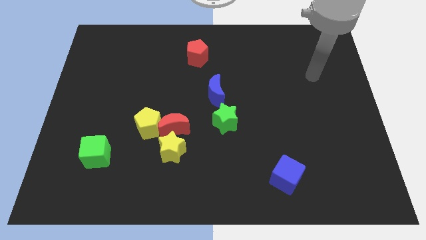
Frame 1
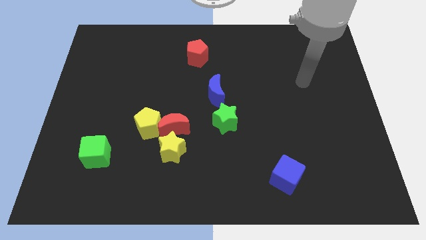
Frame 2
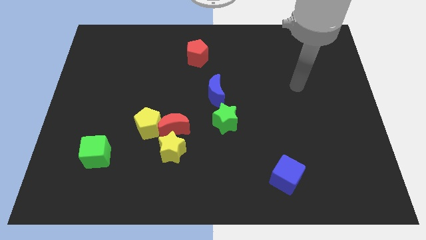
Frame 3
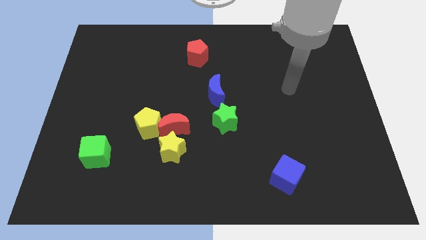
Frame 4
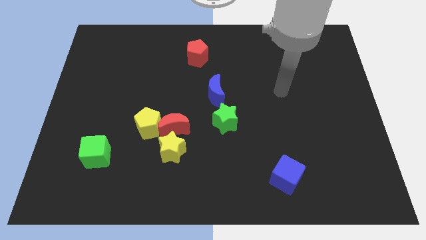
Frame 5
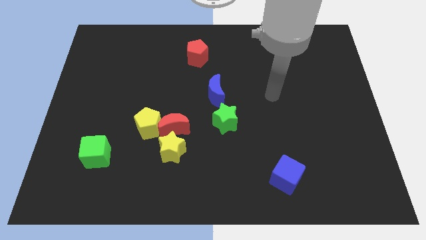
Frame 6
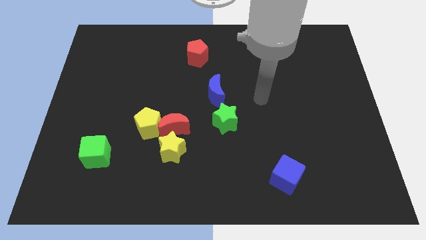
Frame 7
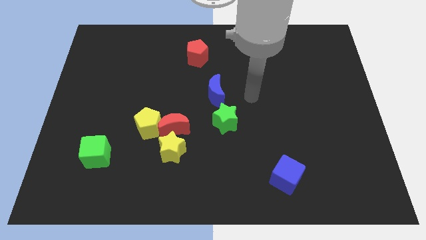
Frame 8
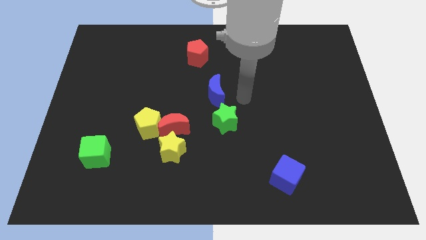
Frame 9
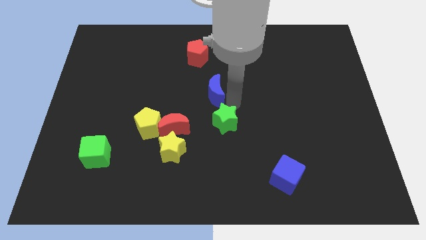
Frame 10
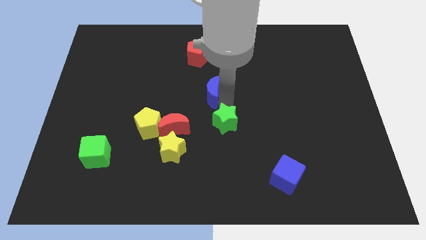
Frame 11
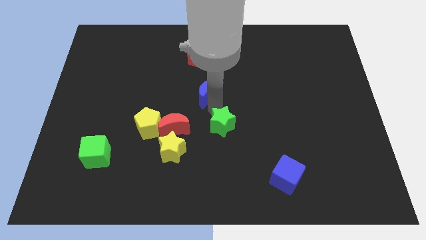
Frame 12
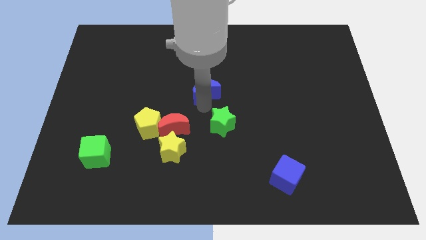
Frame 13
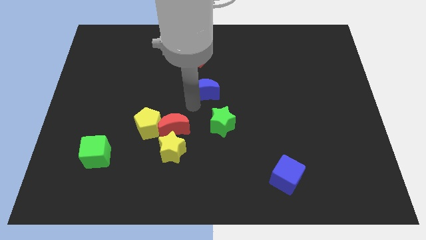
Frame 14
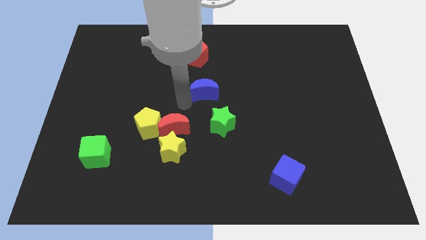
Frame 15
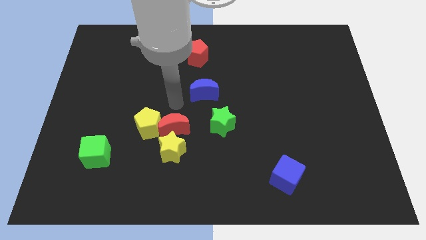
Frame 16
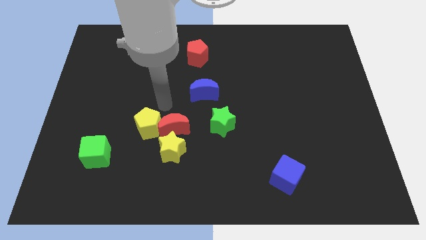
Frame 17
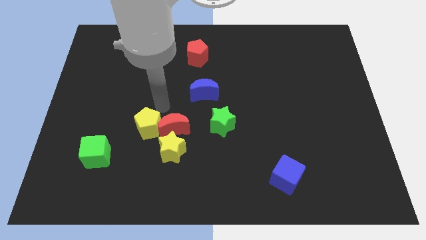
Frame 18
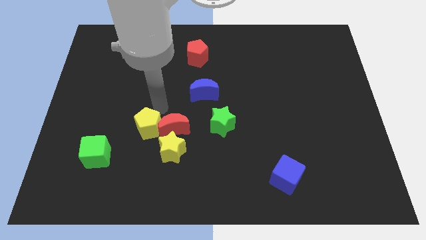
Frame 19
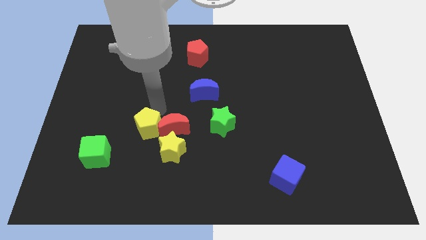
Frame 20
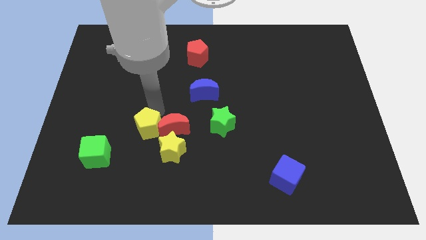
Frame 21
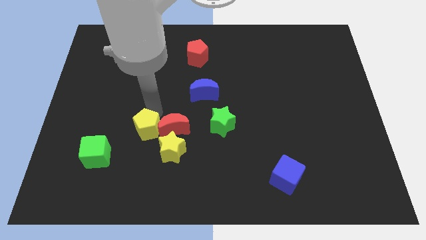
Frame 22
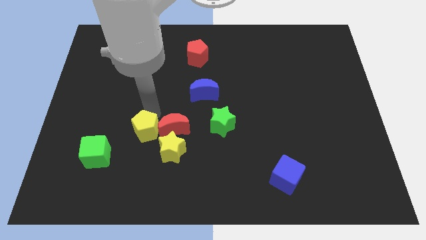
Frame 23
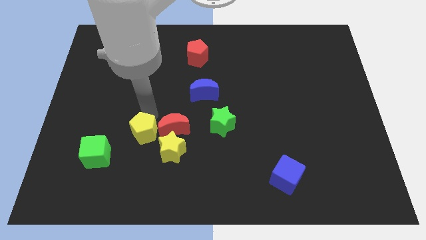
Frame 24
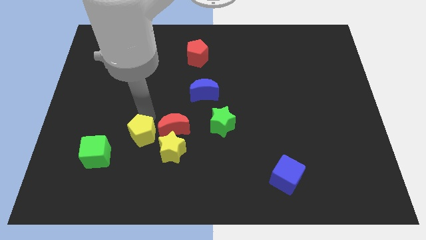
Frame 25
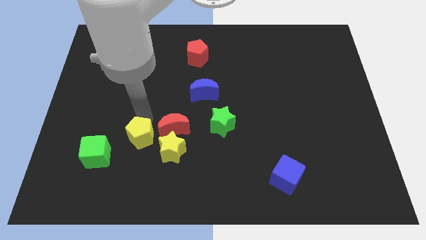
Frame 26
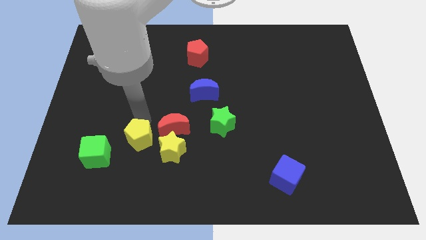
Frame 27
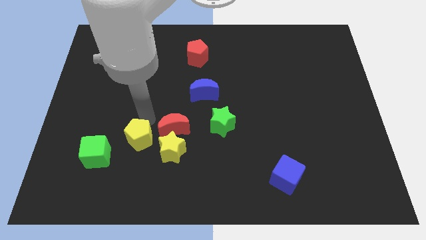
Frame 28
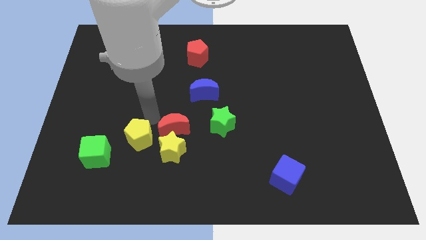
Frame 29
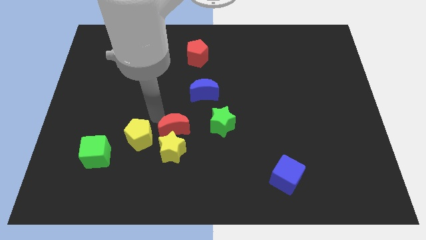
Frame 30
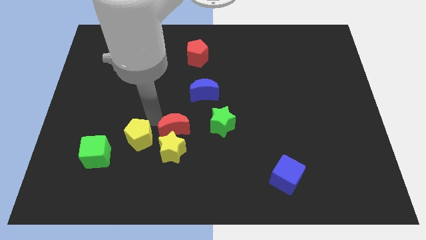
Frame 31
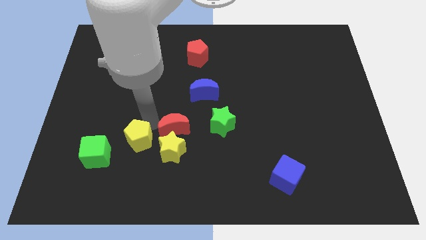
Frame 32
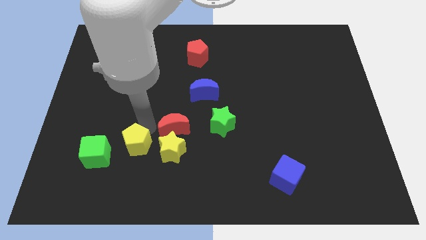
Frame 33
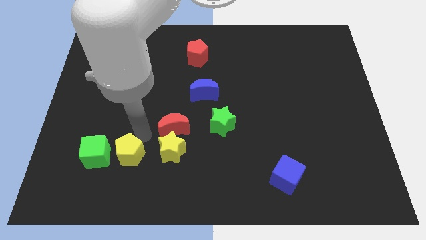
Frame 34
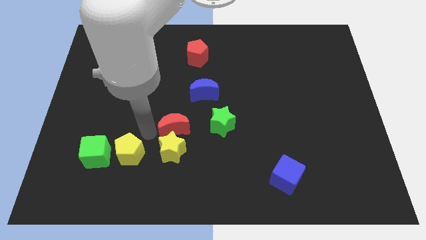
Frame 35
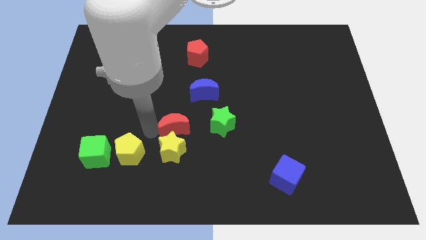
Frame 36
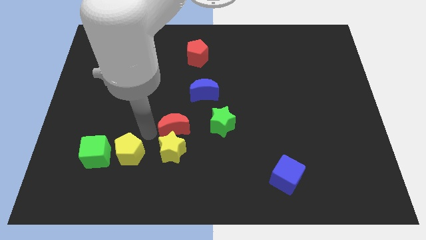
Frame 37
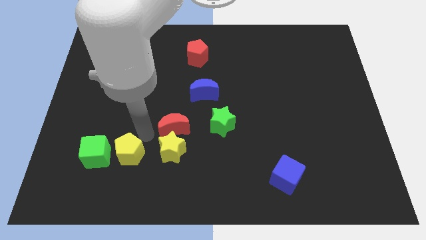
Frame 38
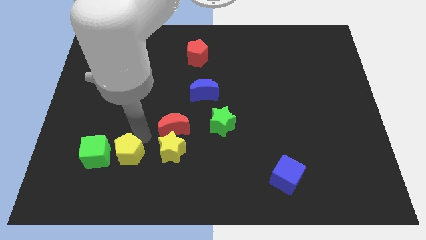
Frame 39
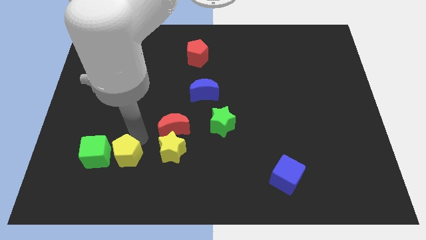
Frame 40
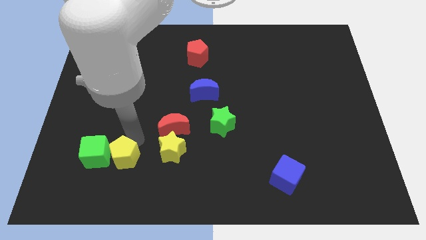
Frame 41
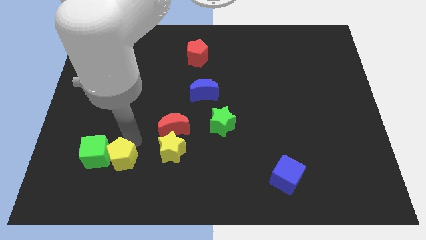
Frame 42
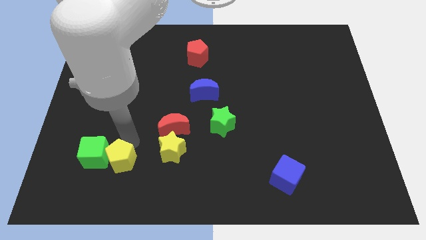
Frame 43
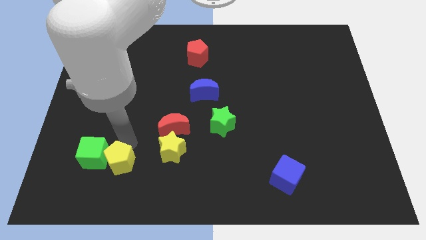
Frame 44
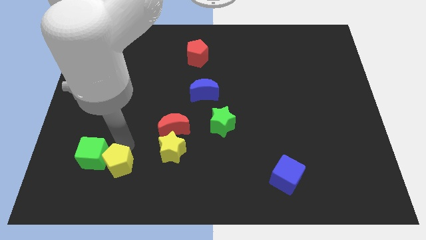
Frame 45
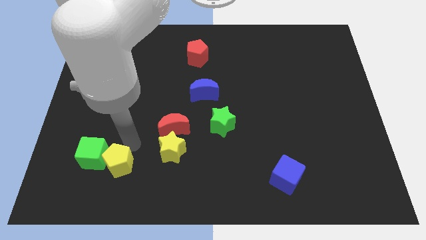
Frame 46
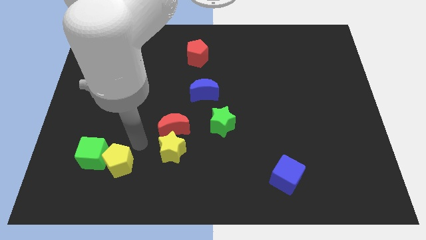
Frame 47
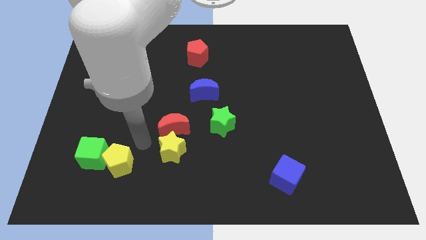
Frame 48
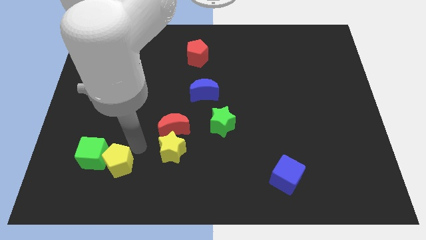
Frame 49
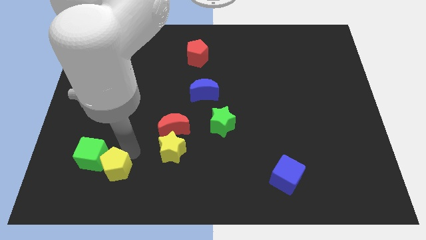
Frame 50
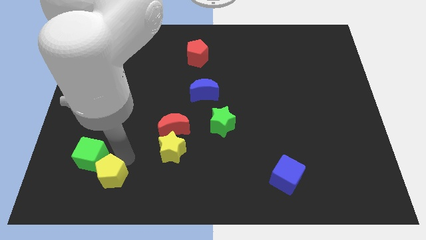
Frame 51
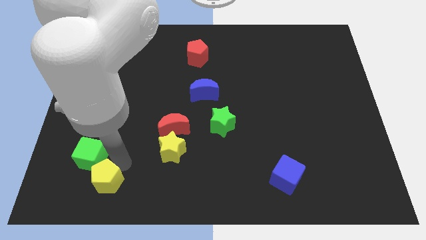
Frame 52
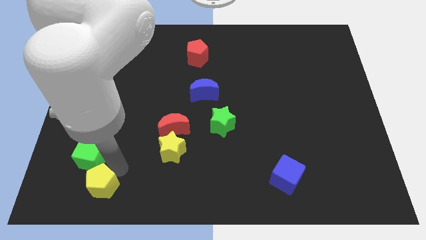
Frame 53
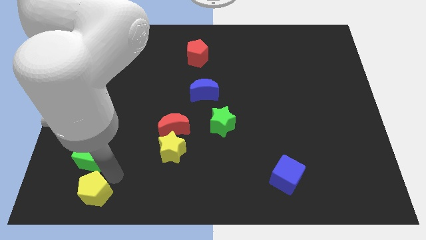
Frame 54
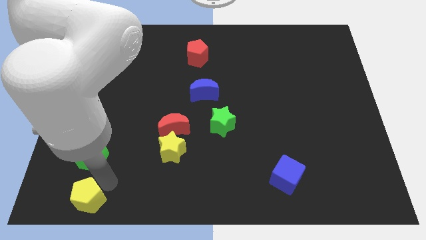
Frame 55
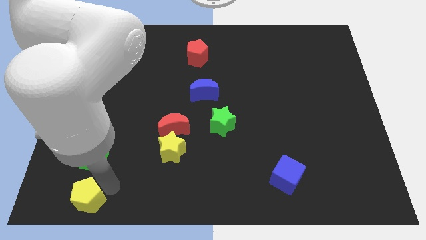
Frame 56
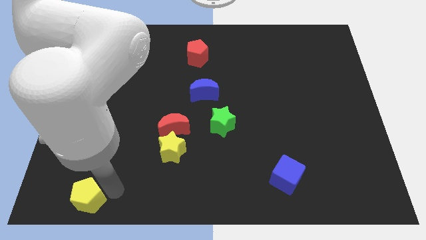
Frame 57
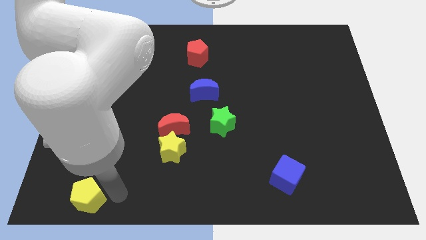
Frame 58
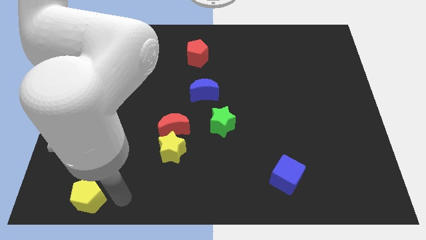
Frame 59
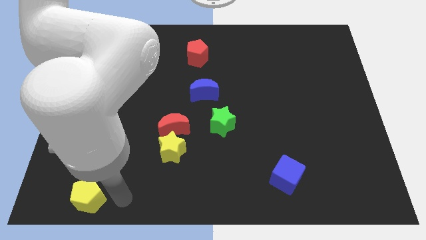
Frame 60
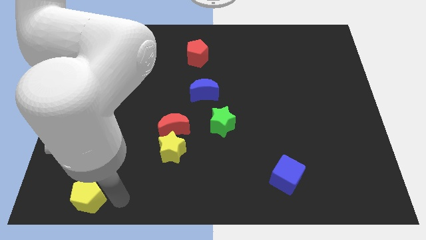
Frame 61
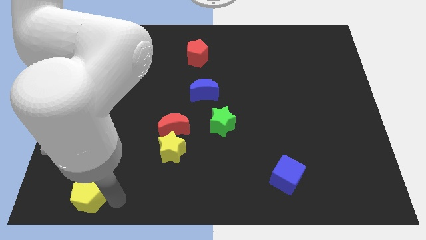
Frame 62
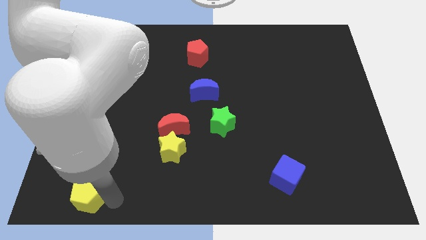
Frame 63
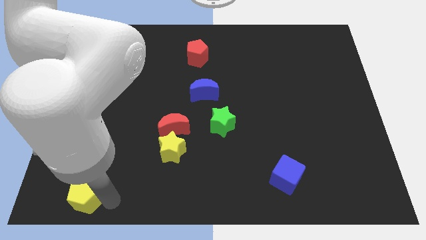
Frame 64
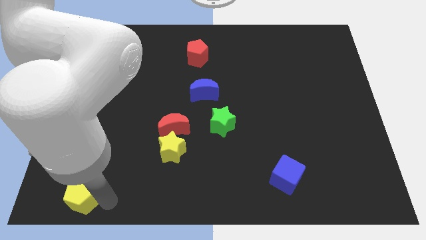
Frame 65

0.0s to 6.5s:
move the yellow pentagon to the bottom left corner
